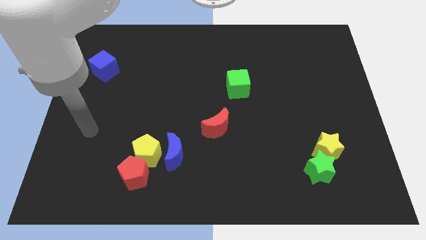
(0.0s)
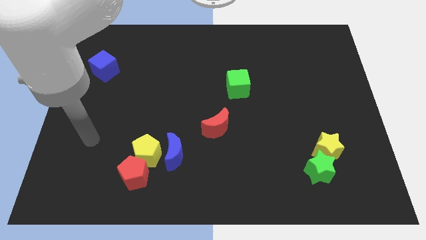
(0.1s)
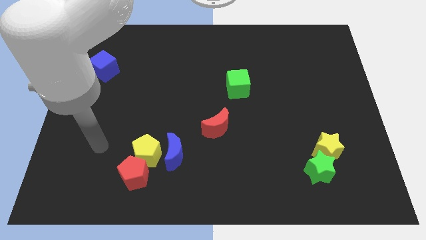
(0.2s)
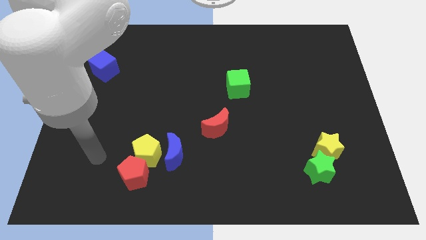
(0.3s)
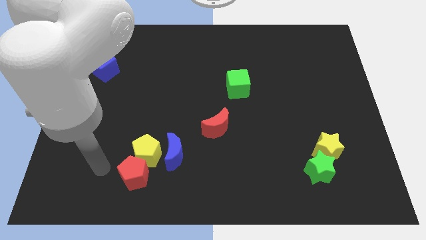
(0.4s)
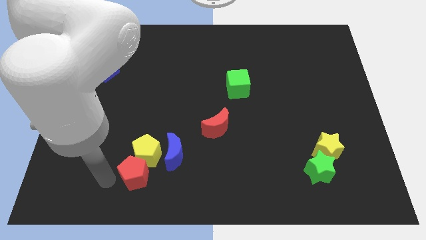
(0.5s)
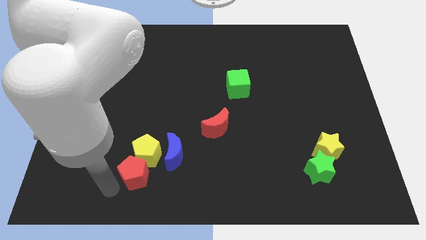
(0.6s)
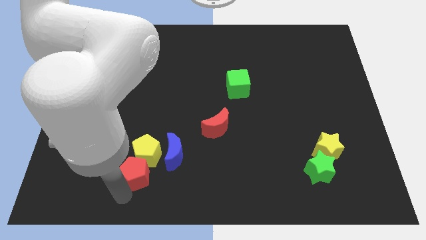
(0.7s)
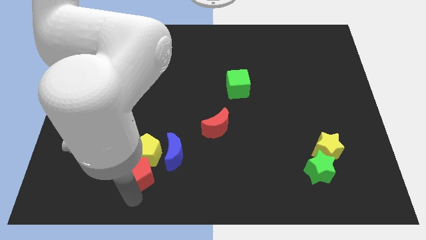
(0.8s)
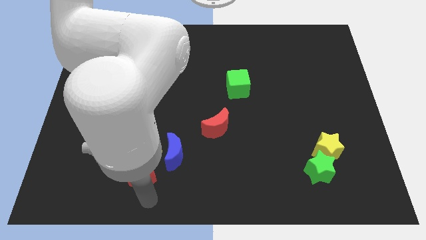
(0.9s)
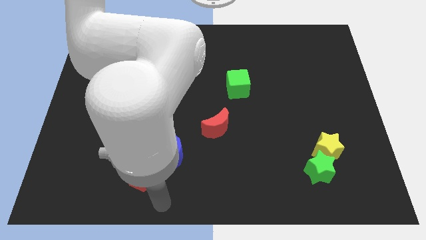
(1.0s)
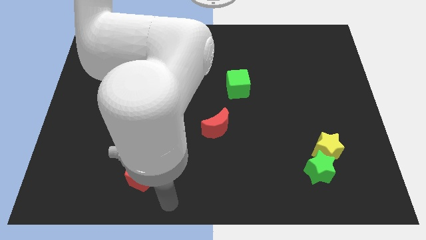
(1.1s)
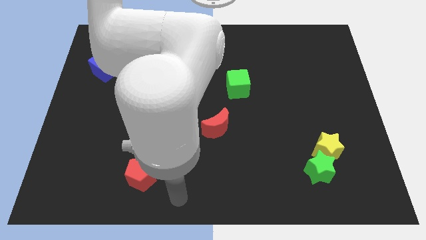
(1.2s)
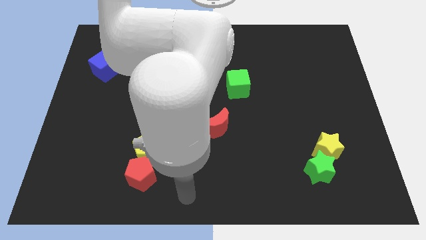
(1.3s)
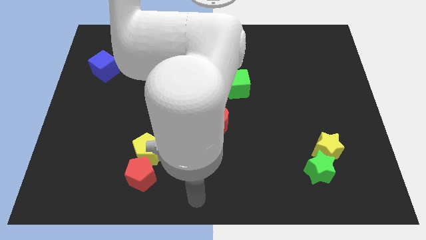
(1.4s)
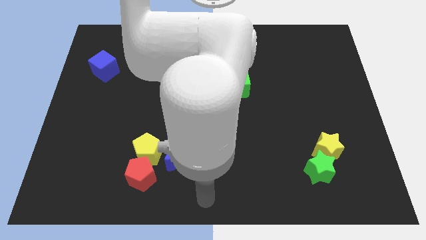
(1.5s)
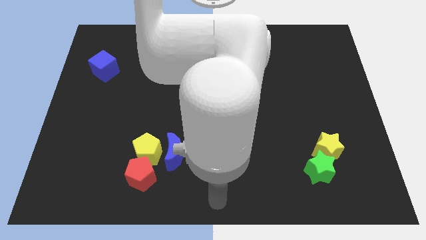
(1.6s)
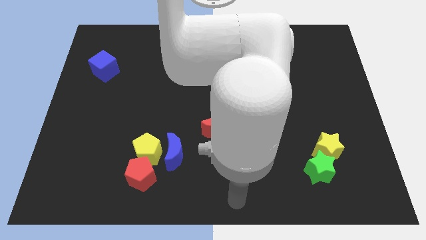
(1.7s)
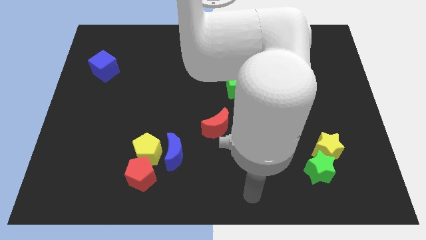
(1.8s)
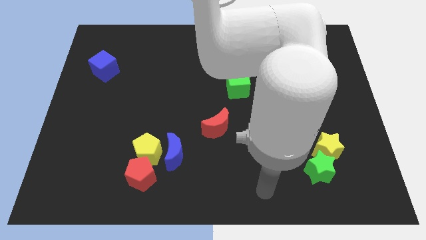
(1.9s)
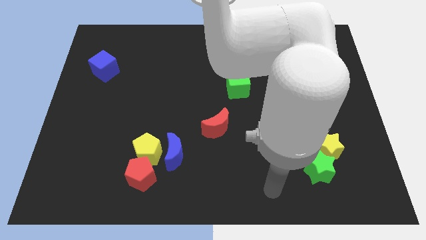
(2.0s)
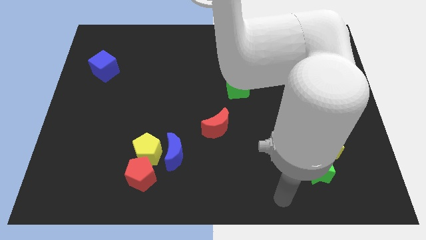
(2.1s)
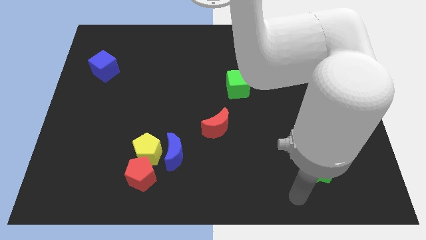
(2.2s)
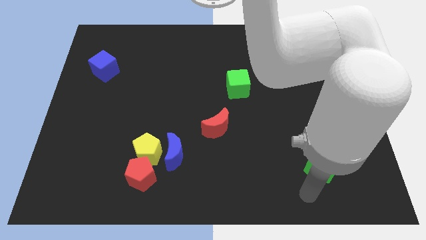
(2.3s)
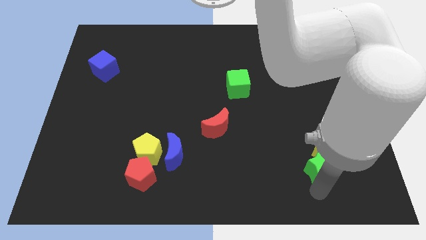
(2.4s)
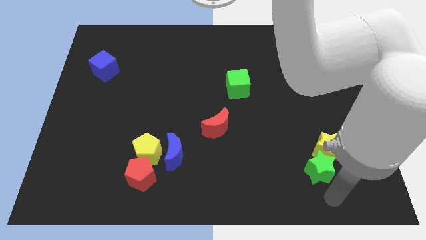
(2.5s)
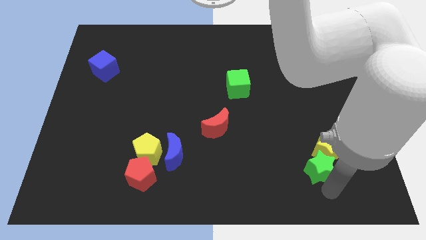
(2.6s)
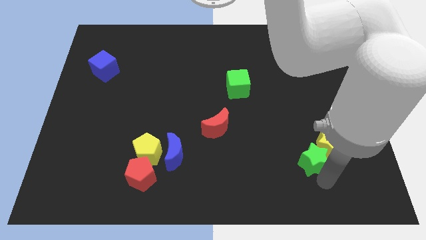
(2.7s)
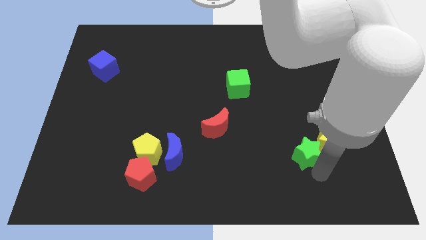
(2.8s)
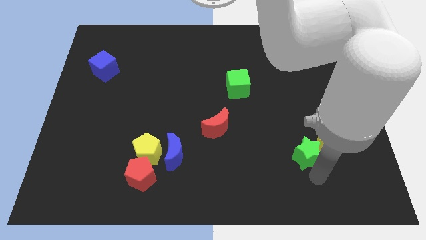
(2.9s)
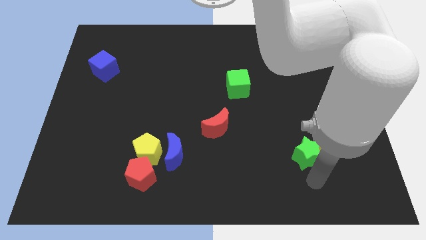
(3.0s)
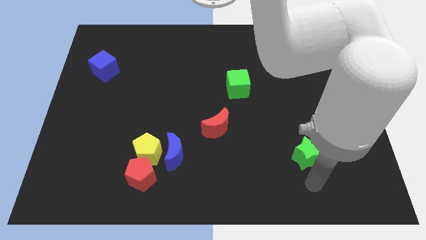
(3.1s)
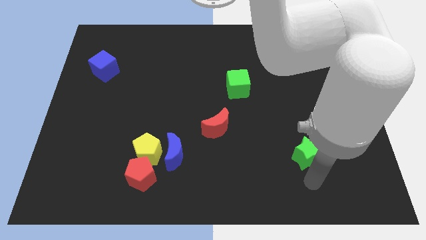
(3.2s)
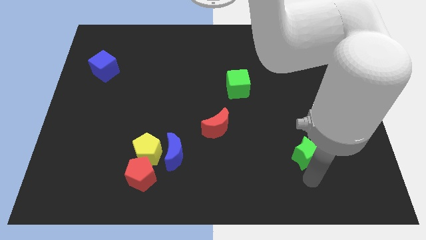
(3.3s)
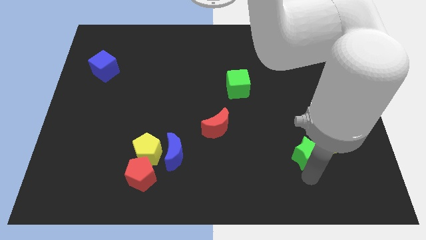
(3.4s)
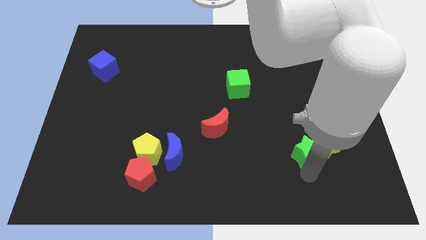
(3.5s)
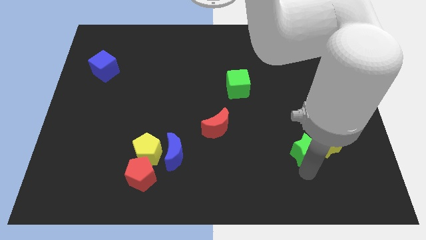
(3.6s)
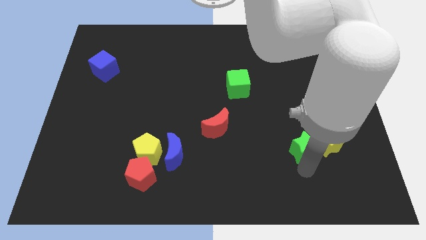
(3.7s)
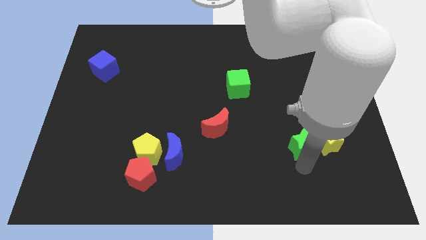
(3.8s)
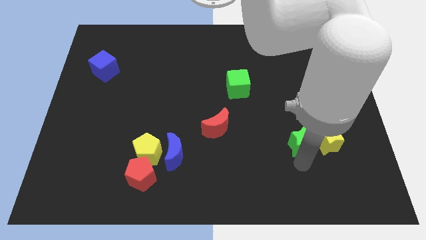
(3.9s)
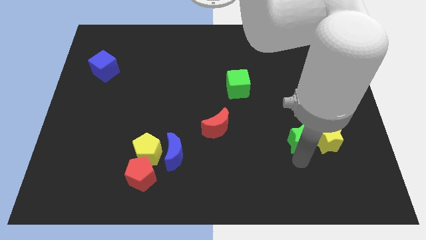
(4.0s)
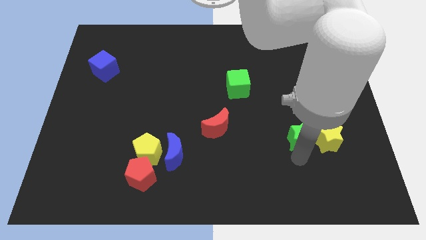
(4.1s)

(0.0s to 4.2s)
slightly push the green star upwards

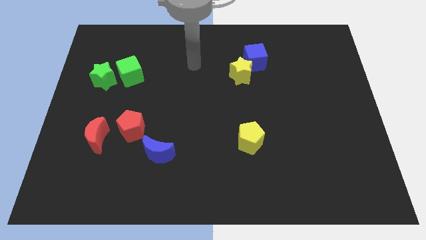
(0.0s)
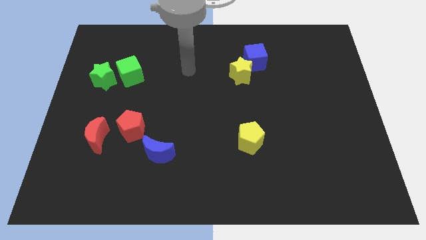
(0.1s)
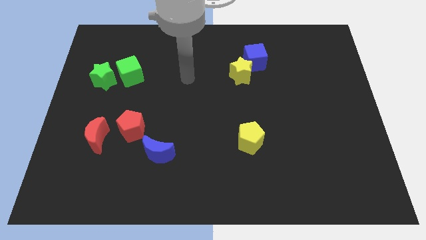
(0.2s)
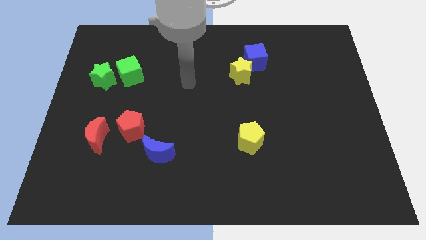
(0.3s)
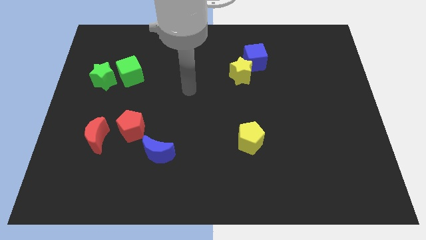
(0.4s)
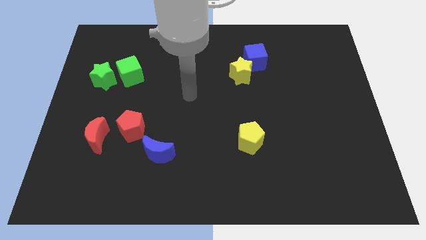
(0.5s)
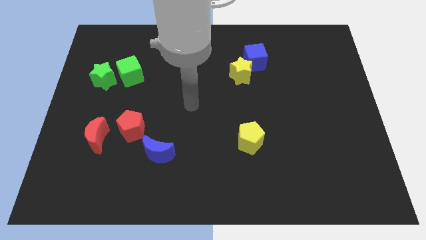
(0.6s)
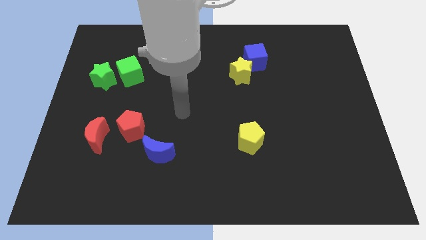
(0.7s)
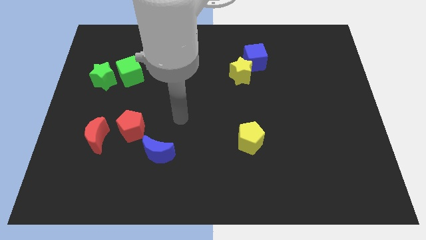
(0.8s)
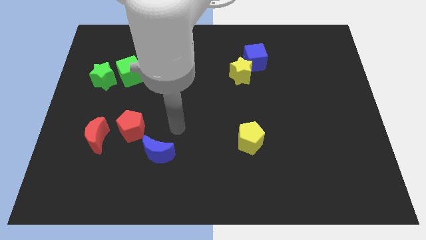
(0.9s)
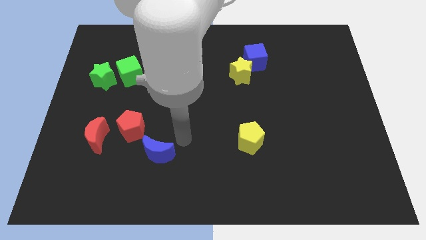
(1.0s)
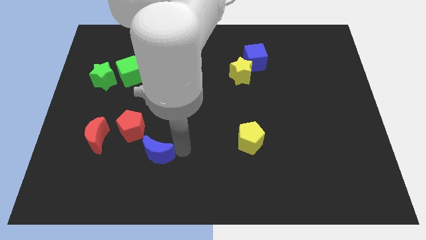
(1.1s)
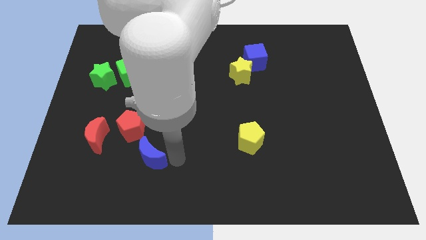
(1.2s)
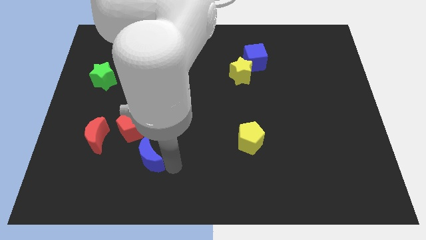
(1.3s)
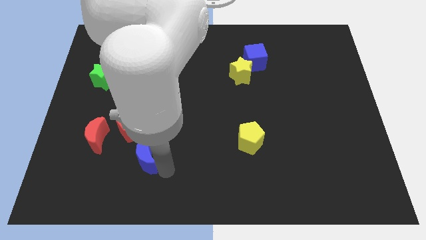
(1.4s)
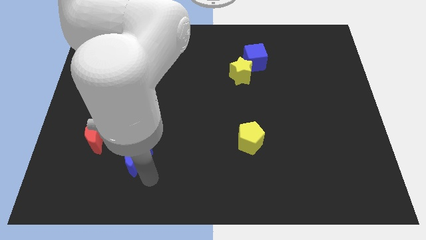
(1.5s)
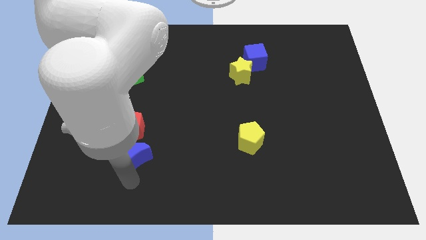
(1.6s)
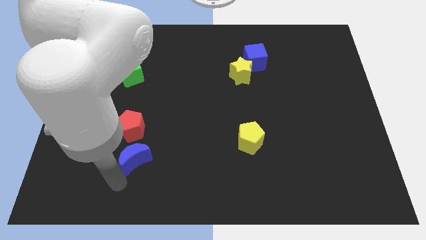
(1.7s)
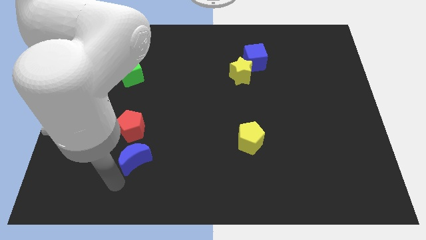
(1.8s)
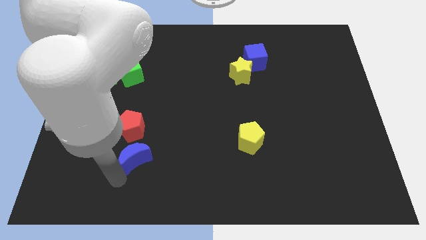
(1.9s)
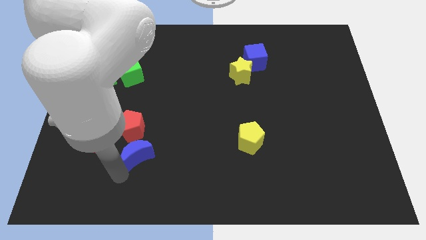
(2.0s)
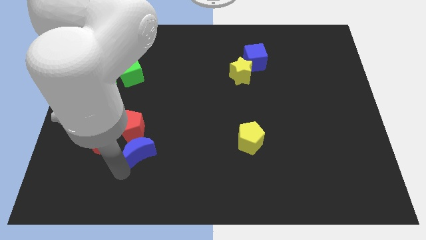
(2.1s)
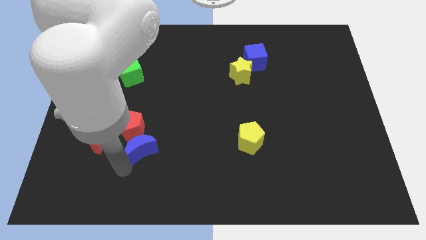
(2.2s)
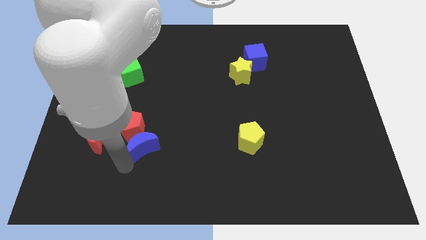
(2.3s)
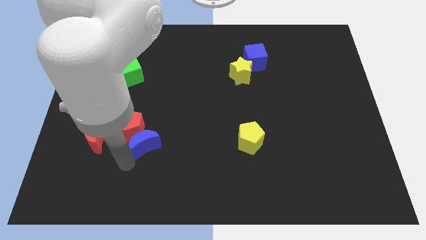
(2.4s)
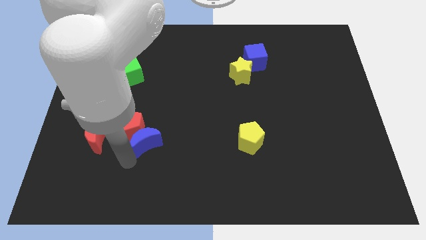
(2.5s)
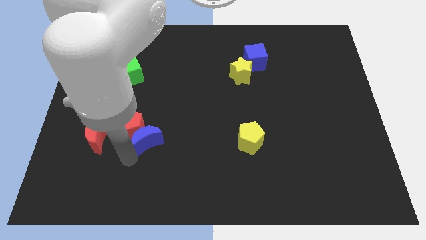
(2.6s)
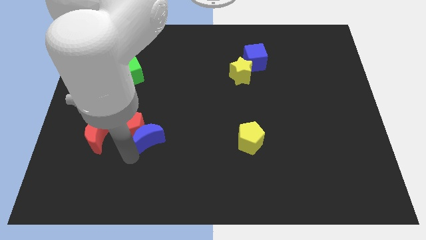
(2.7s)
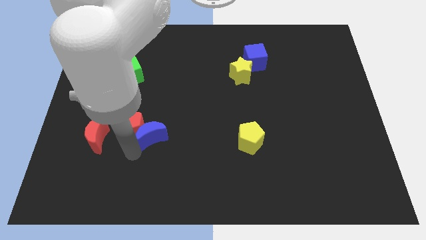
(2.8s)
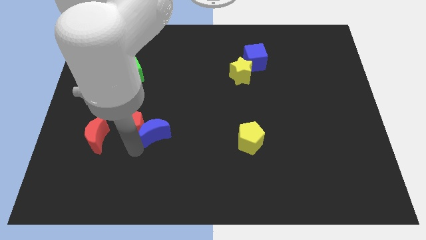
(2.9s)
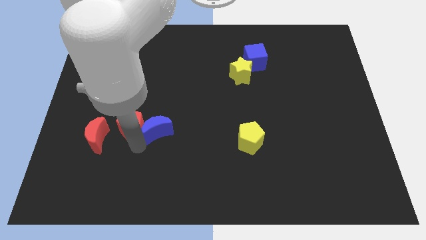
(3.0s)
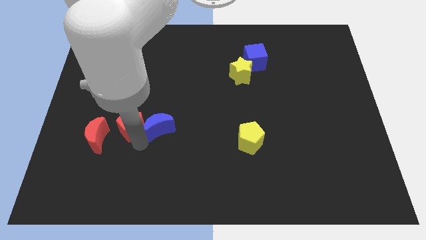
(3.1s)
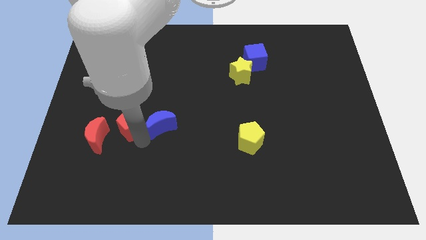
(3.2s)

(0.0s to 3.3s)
push the blue moon upwards slightly

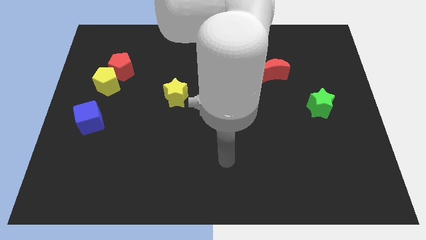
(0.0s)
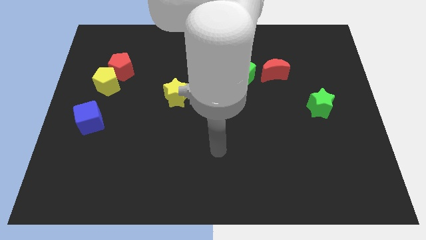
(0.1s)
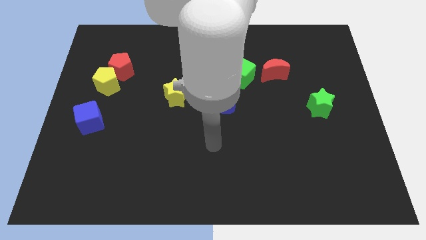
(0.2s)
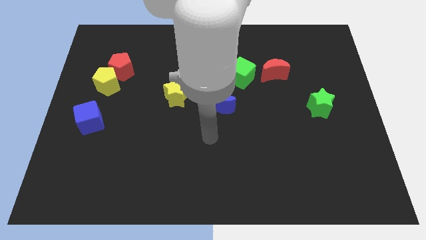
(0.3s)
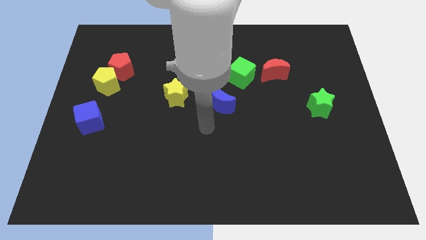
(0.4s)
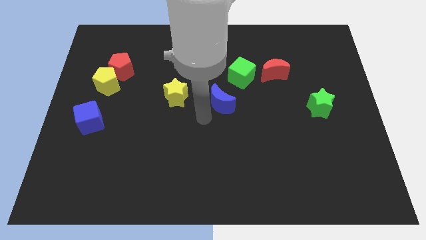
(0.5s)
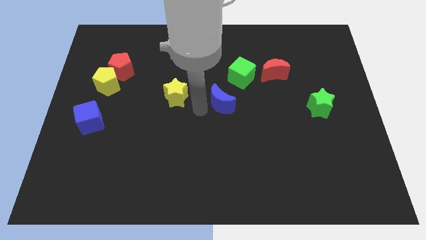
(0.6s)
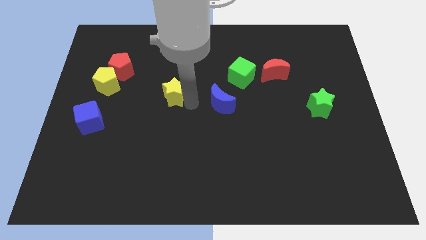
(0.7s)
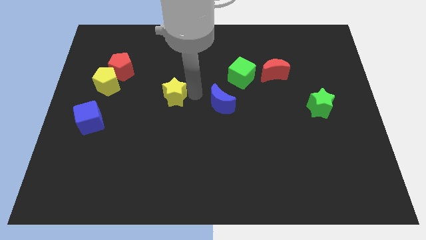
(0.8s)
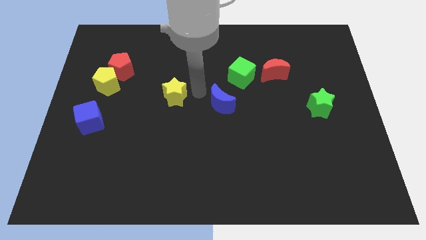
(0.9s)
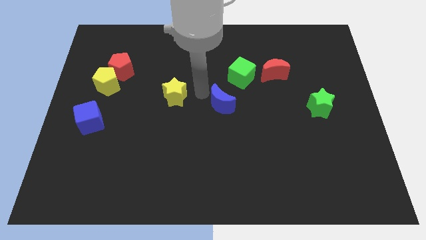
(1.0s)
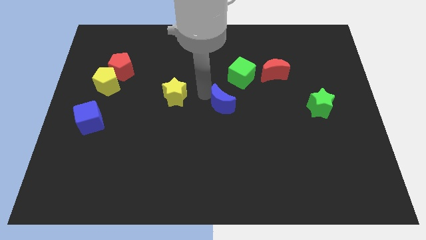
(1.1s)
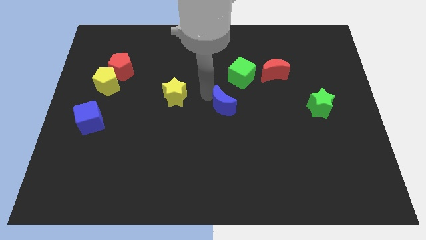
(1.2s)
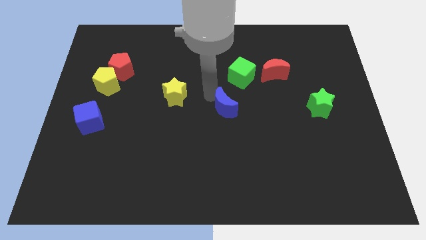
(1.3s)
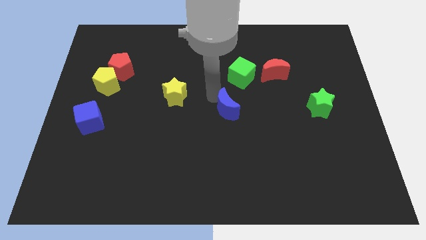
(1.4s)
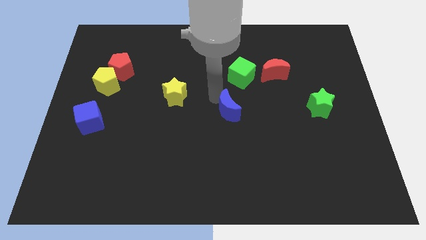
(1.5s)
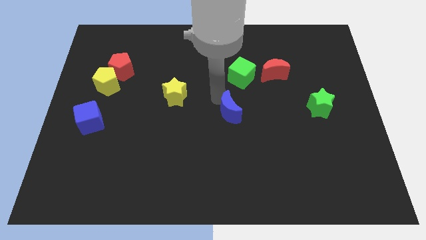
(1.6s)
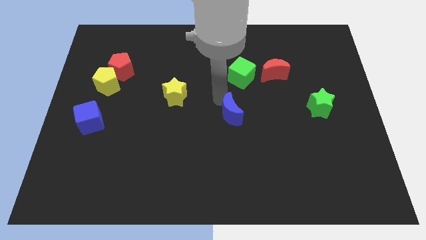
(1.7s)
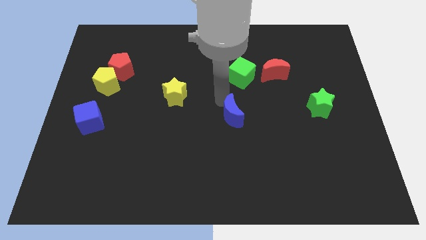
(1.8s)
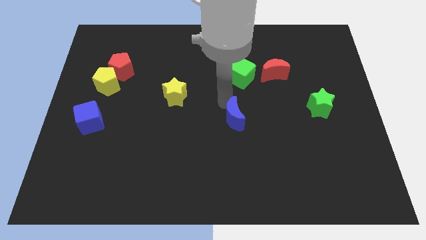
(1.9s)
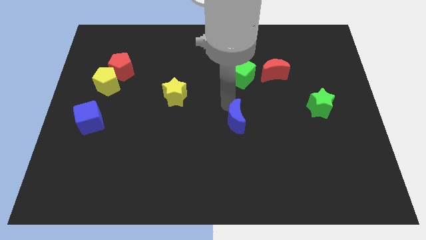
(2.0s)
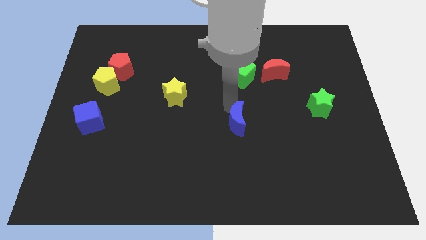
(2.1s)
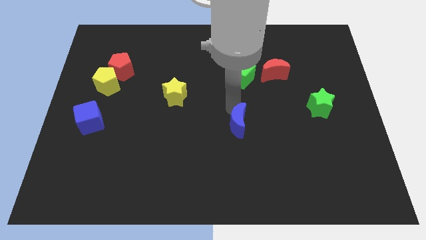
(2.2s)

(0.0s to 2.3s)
slide the blue moon a bit downwards and to the right diagonally
